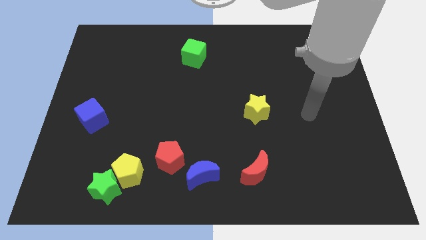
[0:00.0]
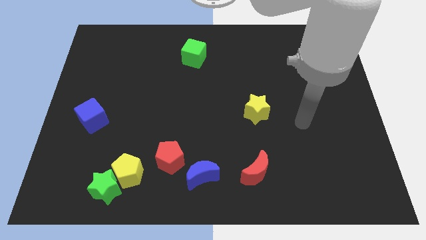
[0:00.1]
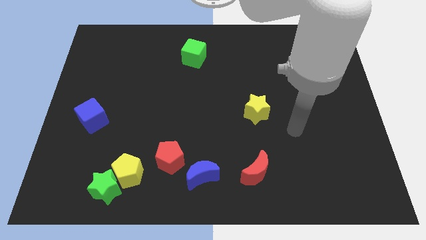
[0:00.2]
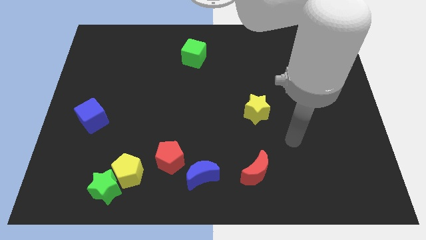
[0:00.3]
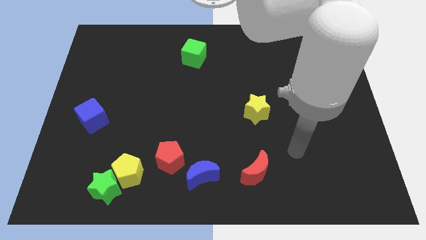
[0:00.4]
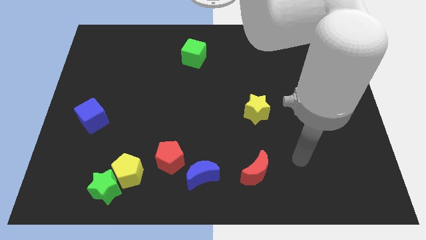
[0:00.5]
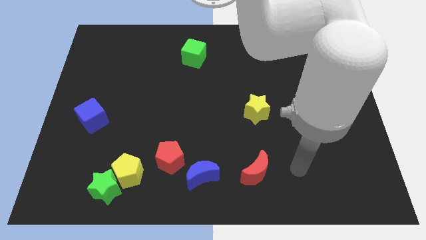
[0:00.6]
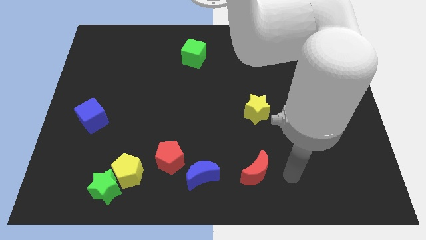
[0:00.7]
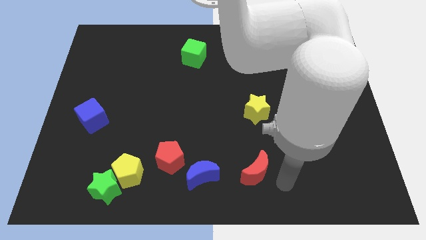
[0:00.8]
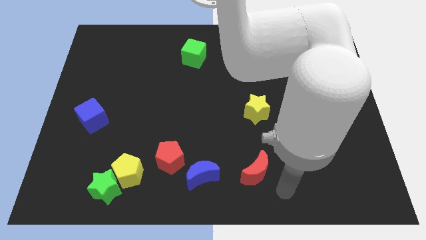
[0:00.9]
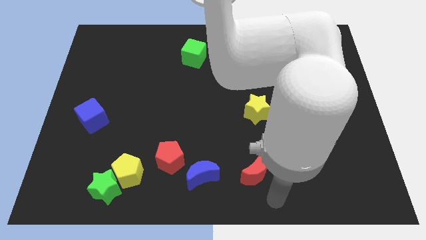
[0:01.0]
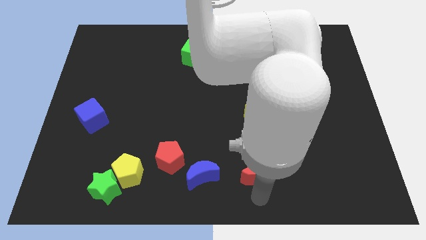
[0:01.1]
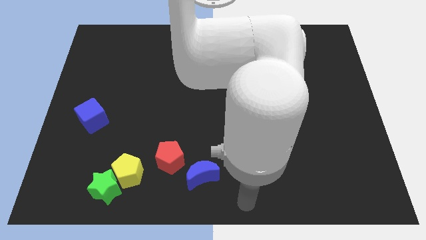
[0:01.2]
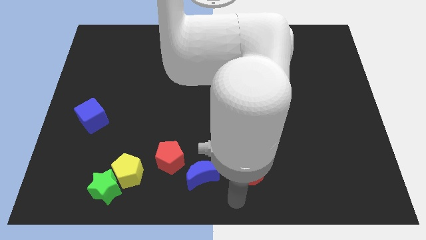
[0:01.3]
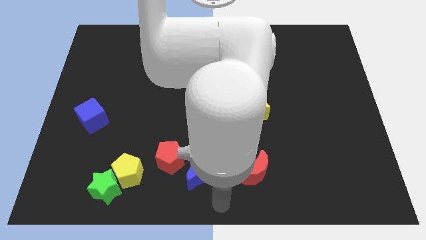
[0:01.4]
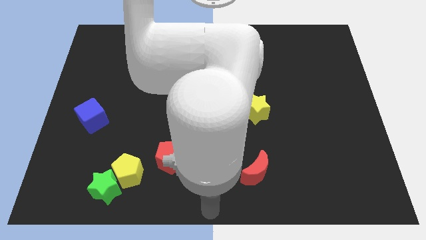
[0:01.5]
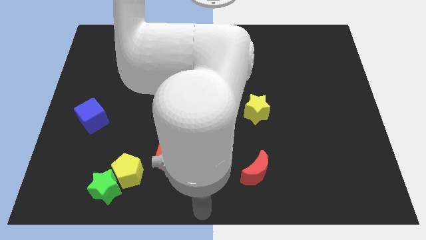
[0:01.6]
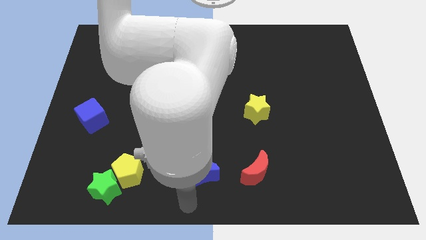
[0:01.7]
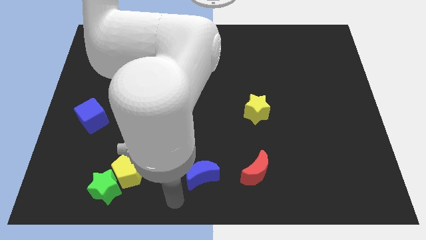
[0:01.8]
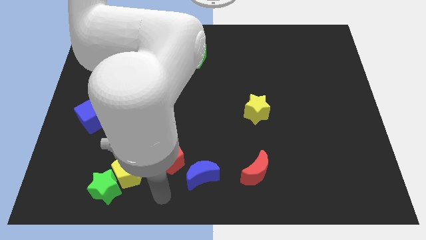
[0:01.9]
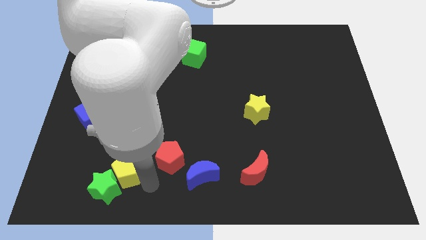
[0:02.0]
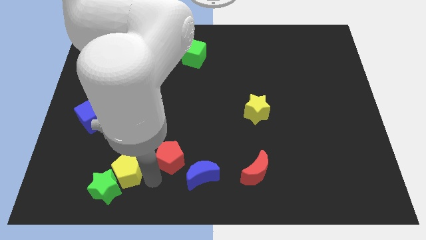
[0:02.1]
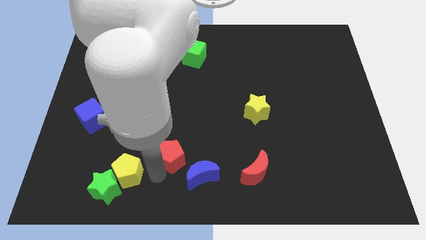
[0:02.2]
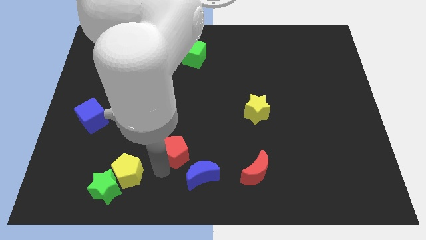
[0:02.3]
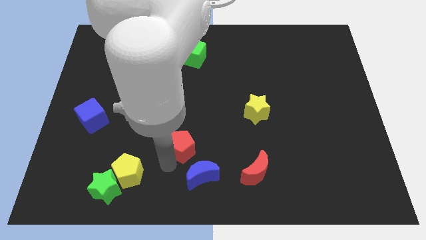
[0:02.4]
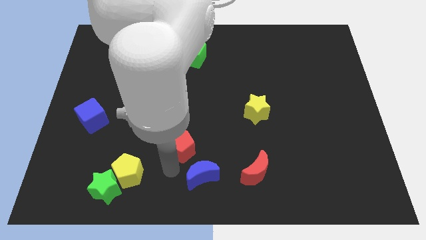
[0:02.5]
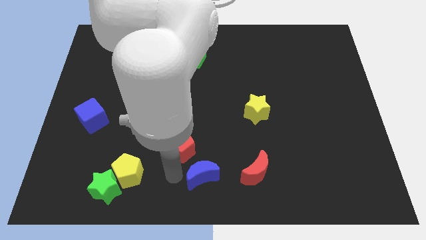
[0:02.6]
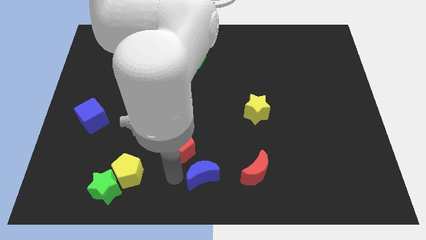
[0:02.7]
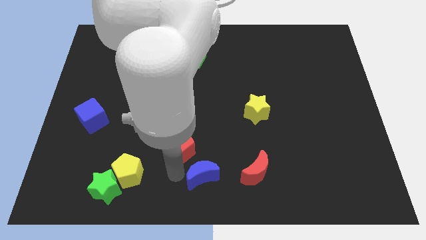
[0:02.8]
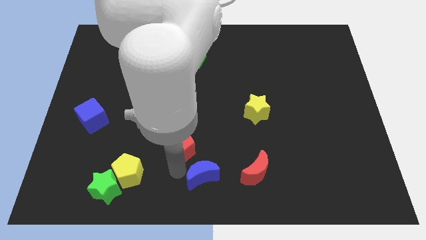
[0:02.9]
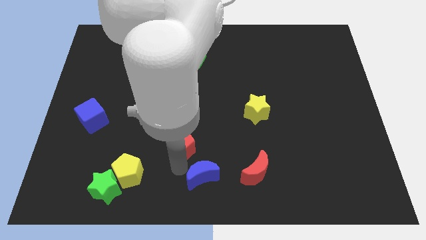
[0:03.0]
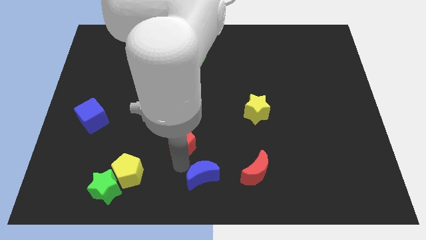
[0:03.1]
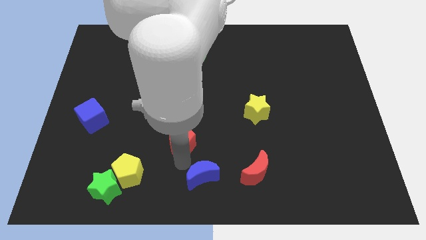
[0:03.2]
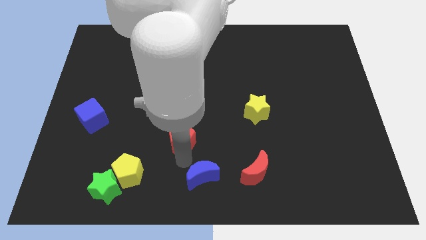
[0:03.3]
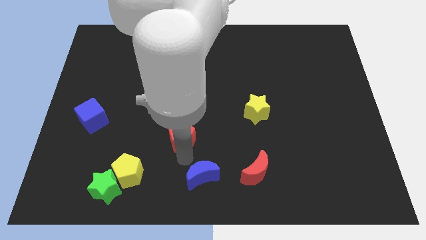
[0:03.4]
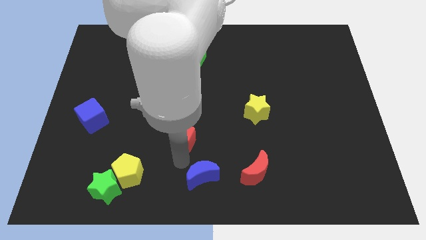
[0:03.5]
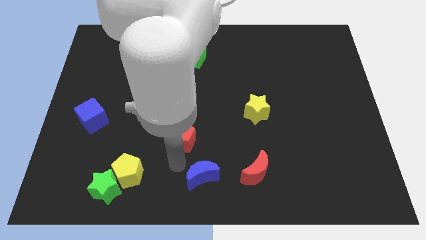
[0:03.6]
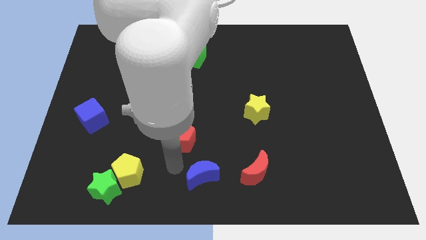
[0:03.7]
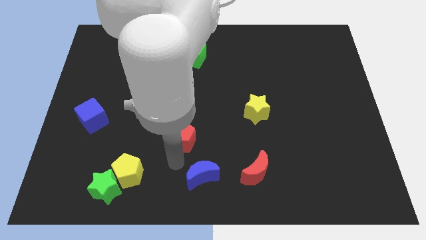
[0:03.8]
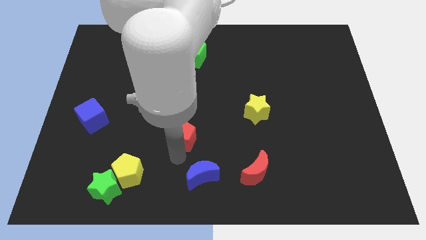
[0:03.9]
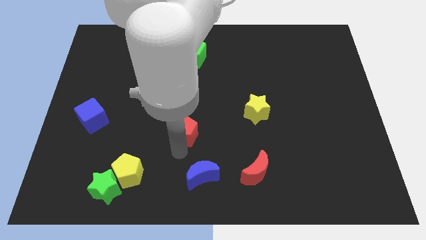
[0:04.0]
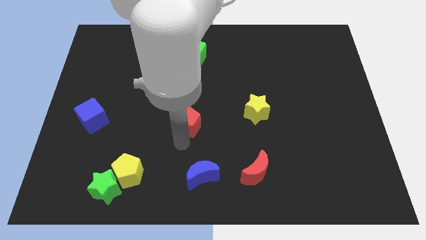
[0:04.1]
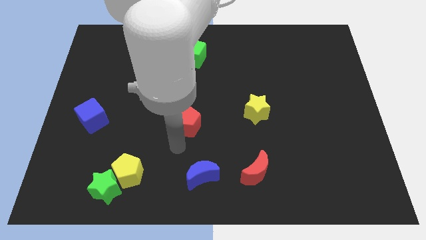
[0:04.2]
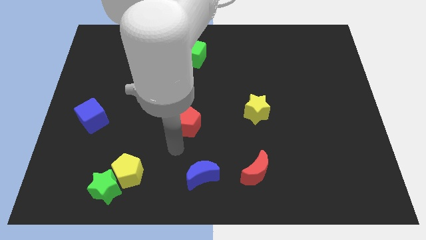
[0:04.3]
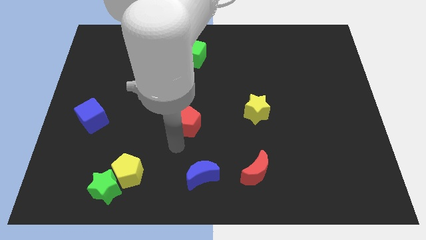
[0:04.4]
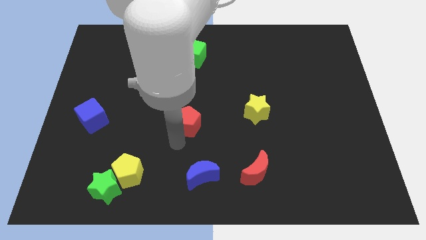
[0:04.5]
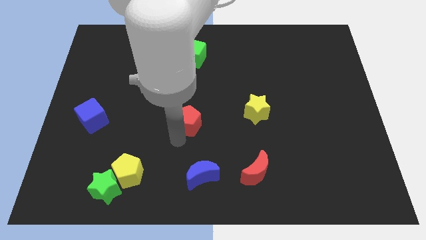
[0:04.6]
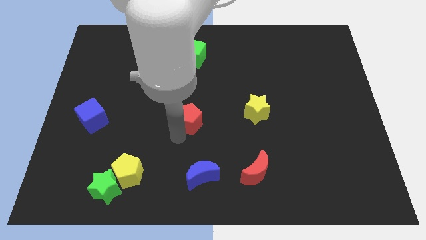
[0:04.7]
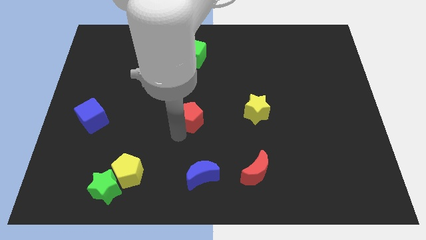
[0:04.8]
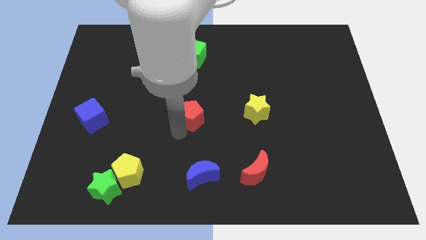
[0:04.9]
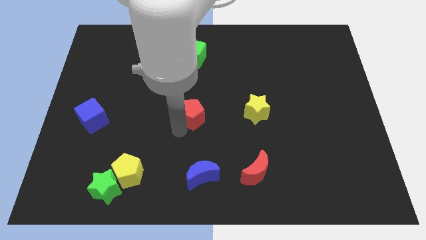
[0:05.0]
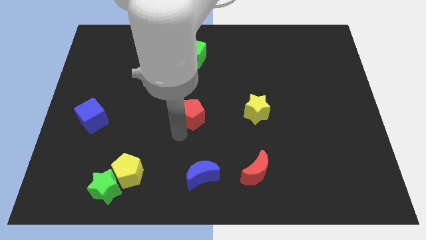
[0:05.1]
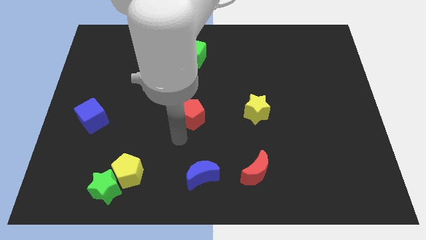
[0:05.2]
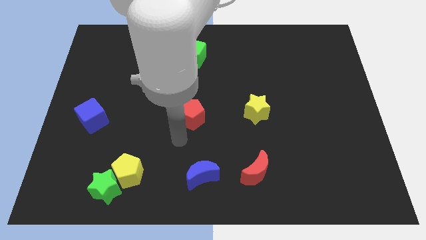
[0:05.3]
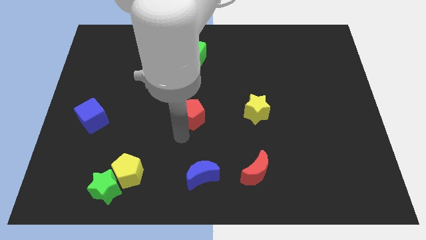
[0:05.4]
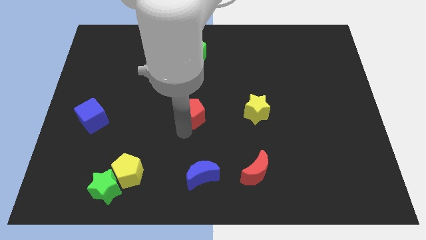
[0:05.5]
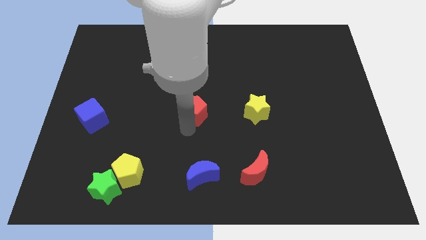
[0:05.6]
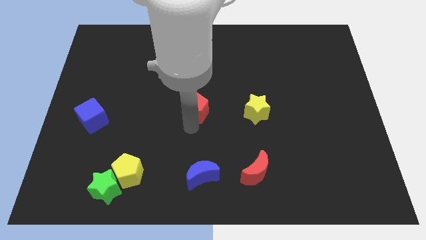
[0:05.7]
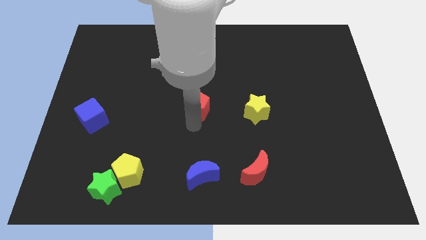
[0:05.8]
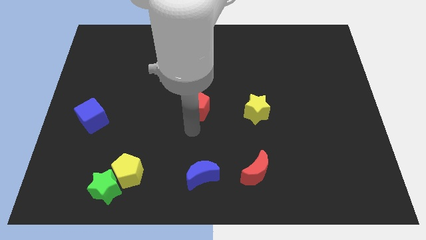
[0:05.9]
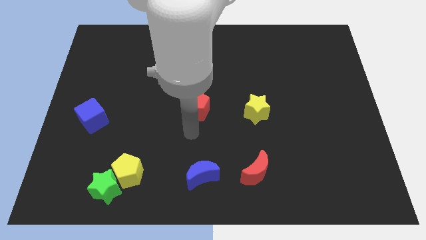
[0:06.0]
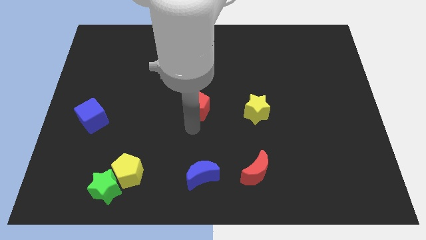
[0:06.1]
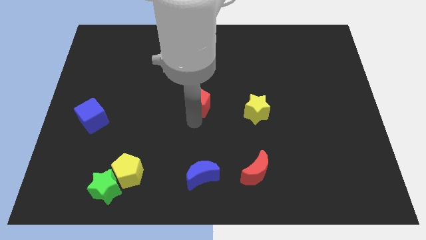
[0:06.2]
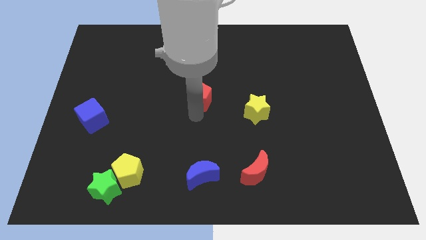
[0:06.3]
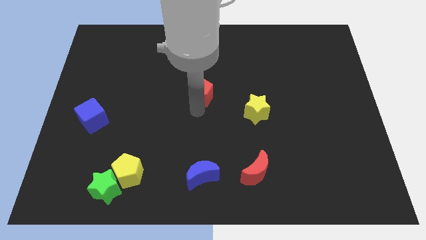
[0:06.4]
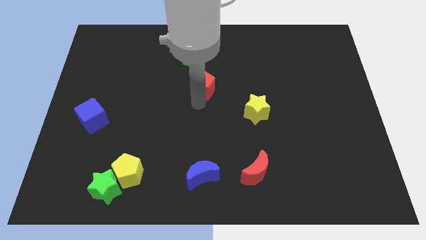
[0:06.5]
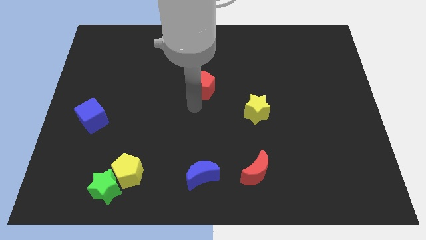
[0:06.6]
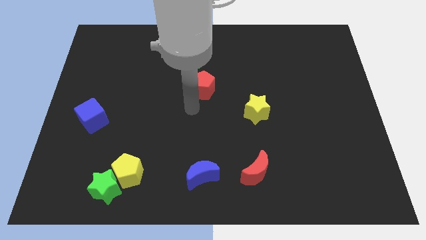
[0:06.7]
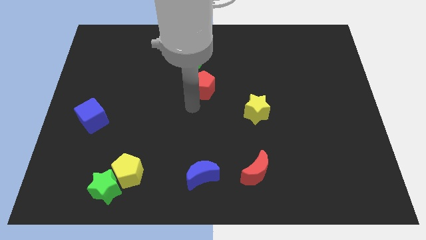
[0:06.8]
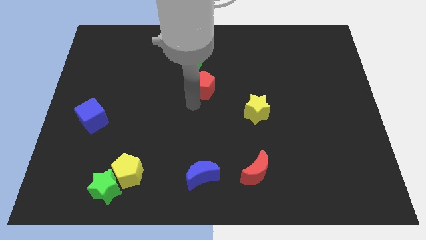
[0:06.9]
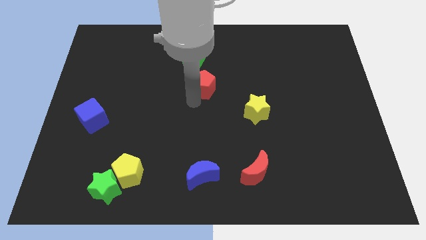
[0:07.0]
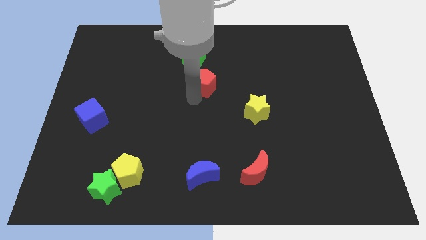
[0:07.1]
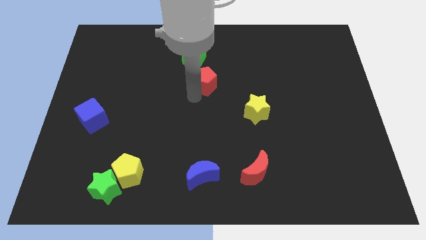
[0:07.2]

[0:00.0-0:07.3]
put the red pentagon to the bottom right side of the green cube
